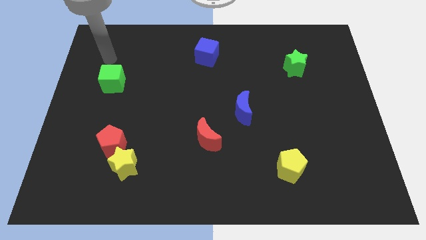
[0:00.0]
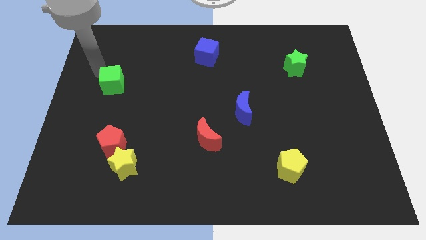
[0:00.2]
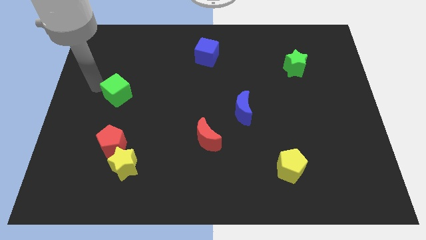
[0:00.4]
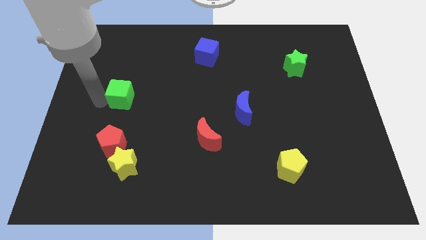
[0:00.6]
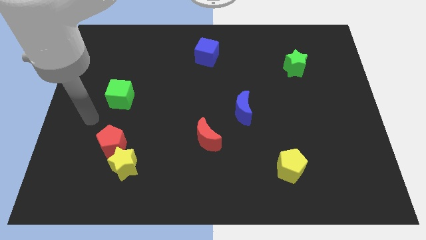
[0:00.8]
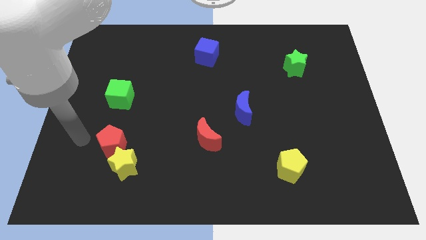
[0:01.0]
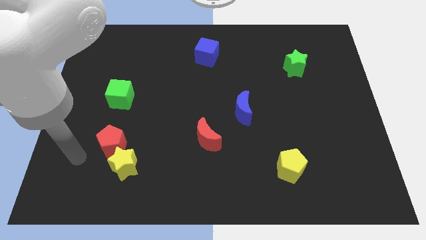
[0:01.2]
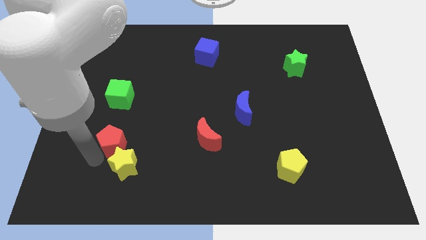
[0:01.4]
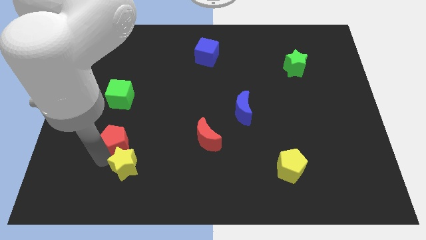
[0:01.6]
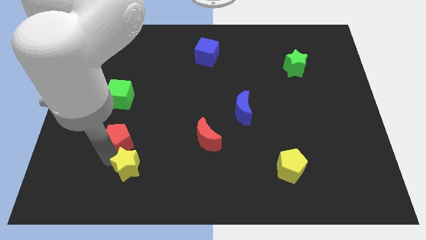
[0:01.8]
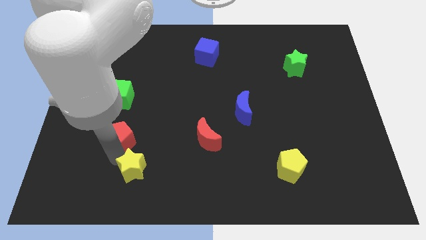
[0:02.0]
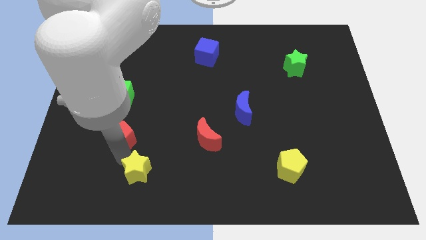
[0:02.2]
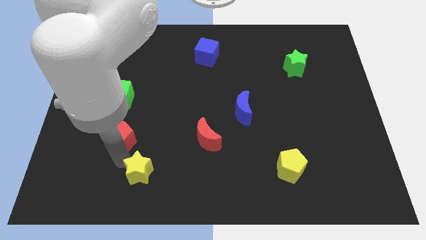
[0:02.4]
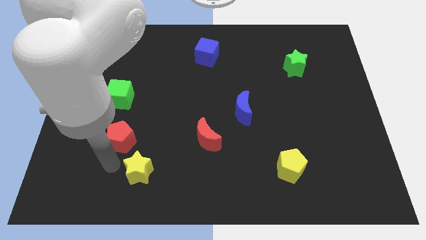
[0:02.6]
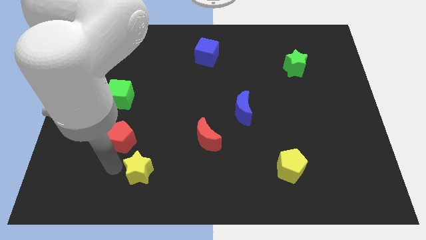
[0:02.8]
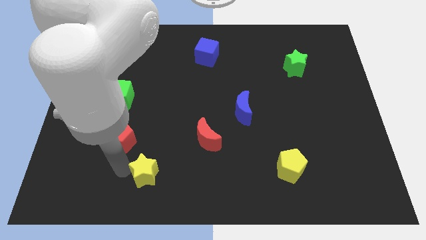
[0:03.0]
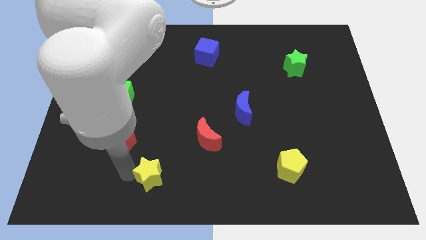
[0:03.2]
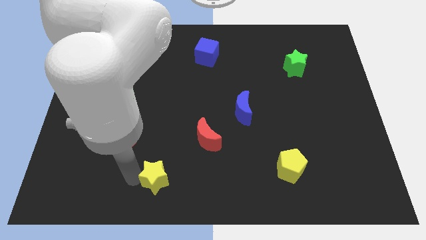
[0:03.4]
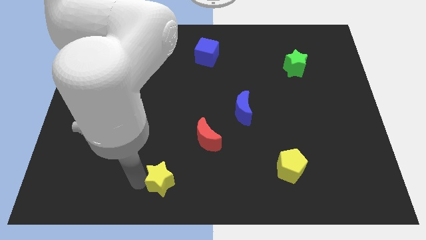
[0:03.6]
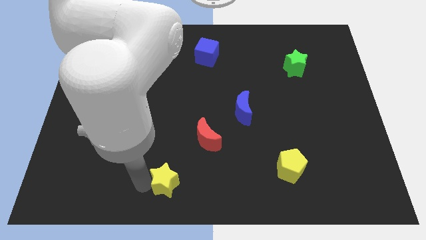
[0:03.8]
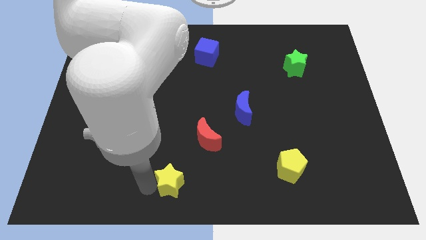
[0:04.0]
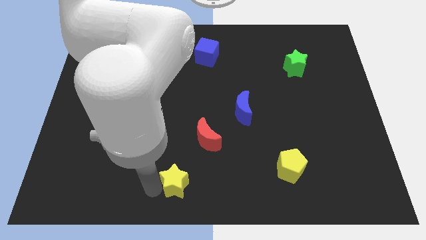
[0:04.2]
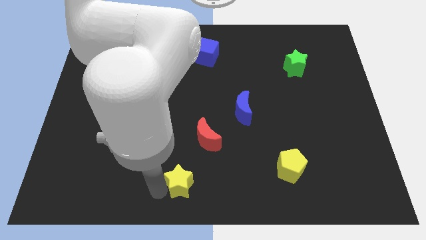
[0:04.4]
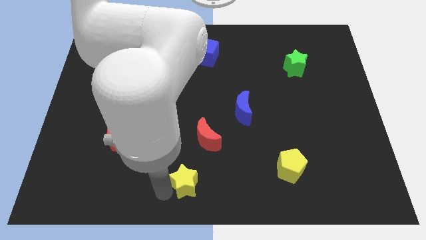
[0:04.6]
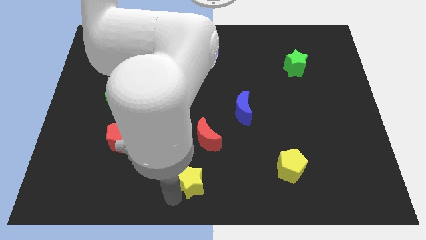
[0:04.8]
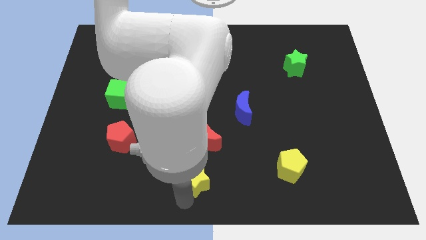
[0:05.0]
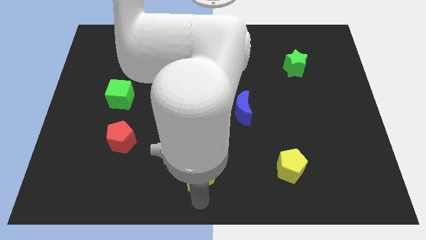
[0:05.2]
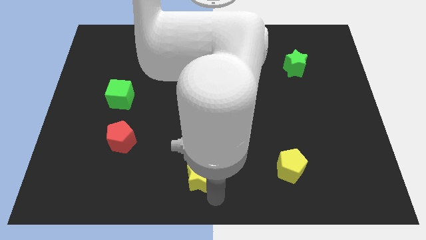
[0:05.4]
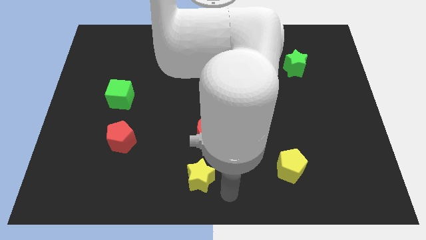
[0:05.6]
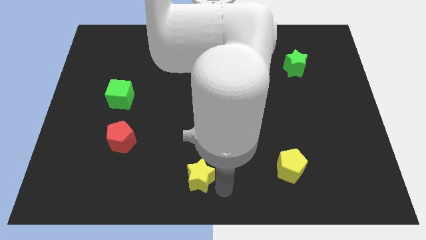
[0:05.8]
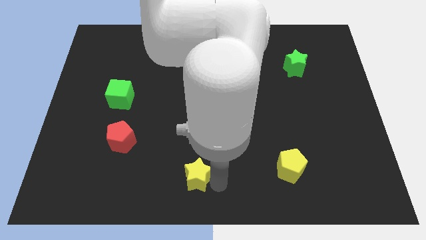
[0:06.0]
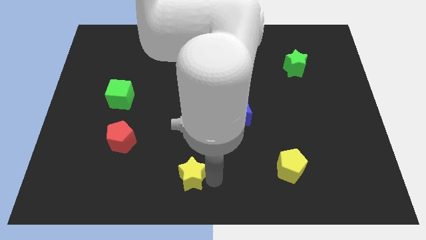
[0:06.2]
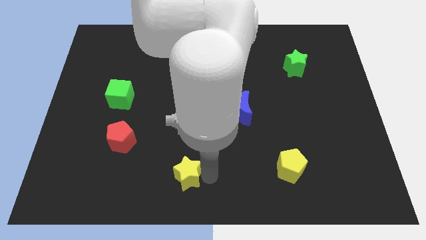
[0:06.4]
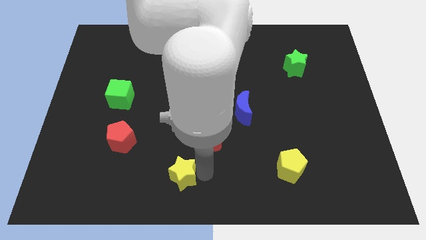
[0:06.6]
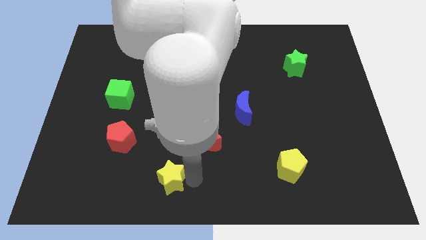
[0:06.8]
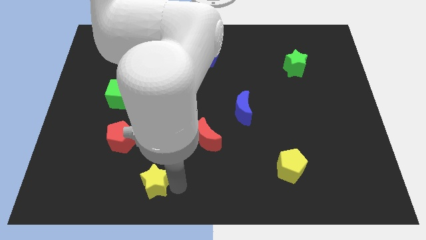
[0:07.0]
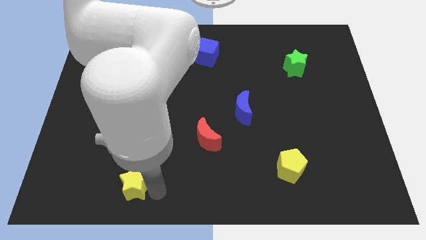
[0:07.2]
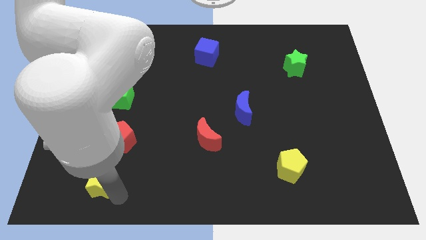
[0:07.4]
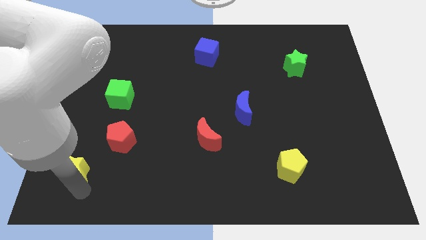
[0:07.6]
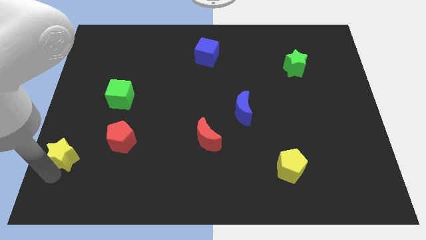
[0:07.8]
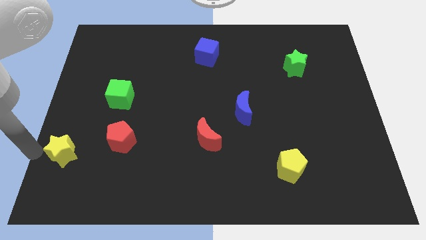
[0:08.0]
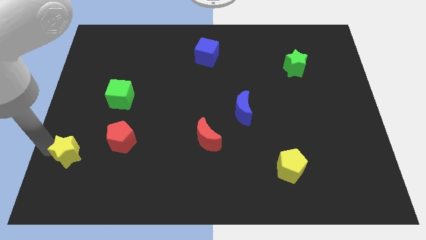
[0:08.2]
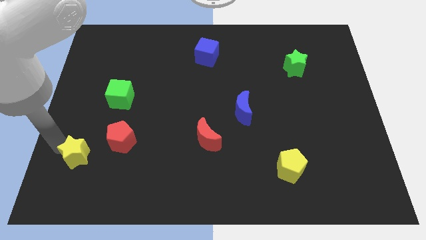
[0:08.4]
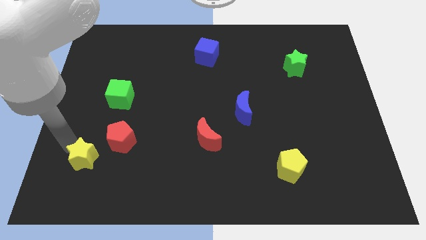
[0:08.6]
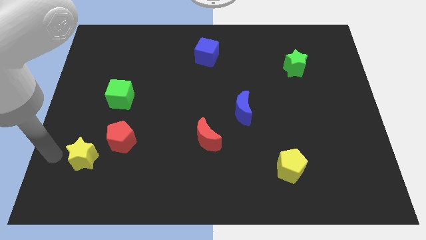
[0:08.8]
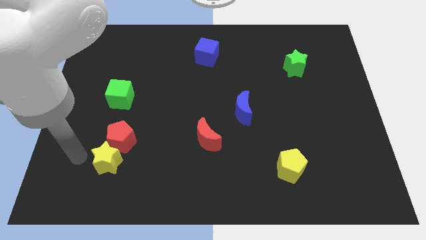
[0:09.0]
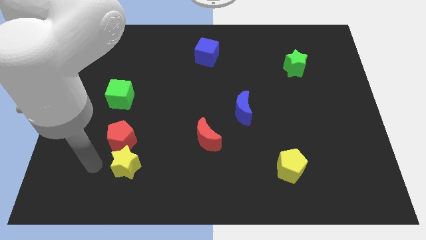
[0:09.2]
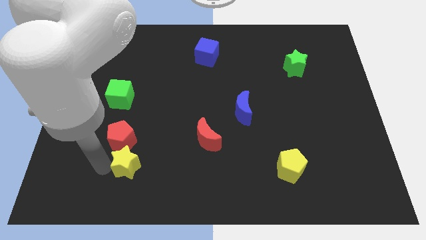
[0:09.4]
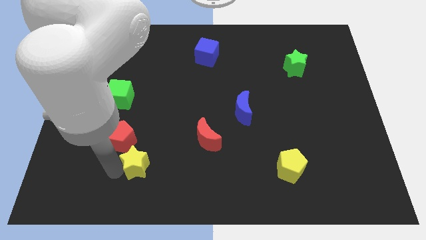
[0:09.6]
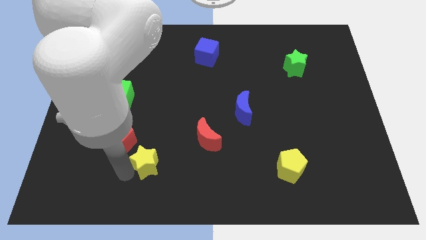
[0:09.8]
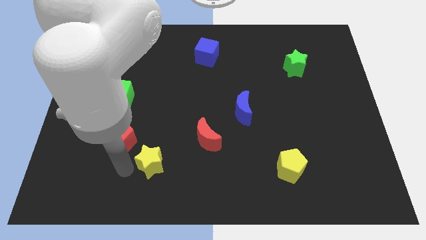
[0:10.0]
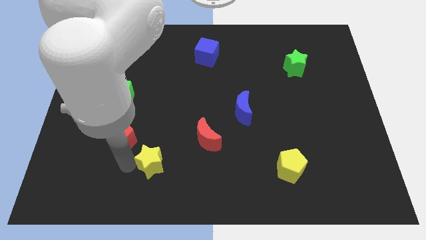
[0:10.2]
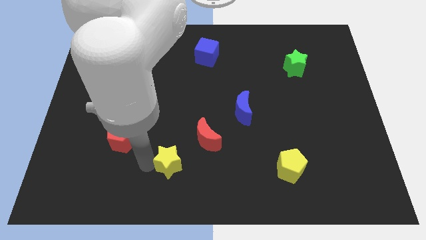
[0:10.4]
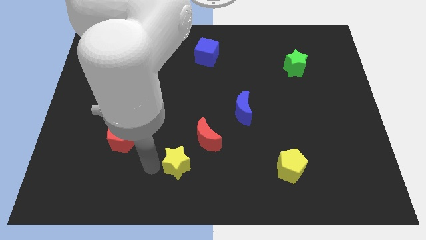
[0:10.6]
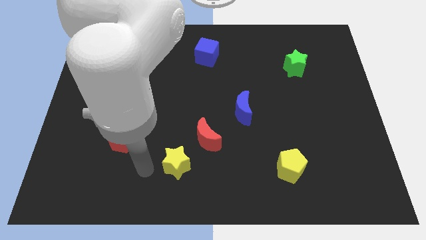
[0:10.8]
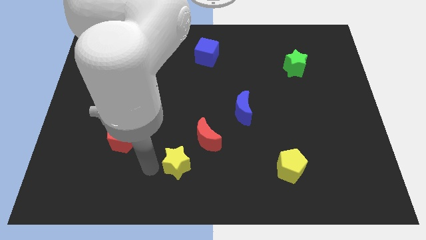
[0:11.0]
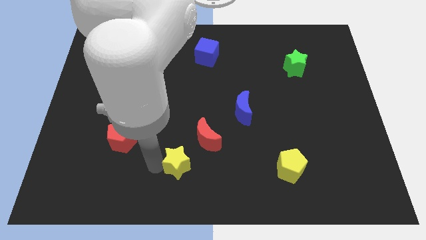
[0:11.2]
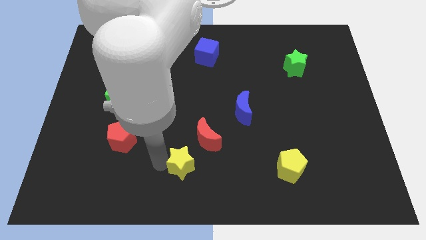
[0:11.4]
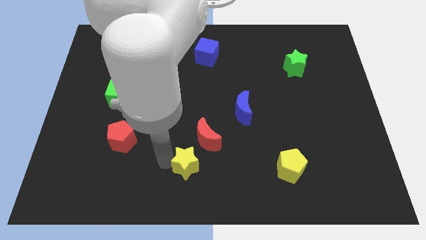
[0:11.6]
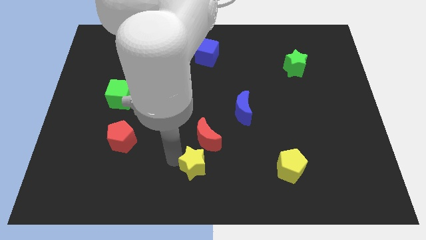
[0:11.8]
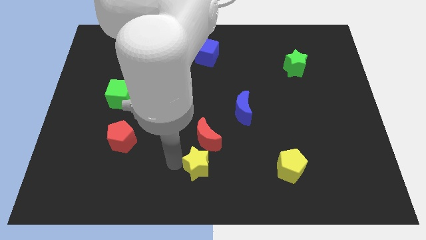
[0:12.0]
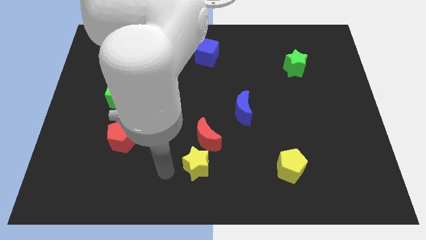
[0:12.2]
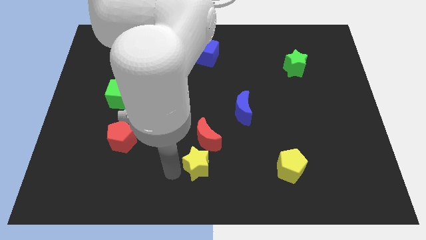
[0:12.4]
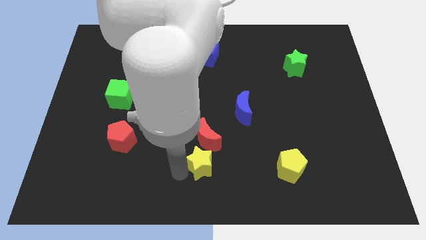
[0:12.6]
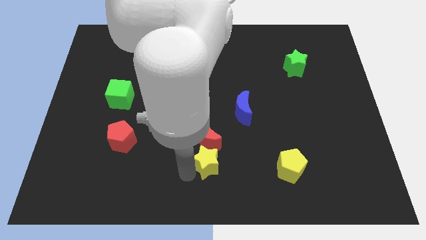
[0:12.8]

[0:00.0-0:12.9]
slide the yellow star diagonally down and to the right of the red moon

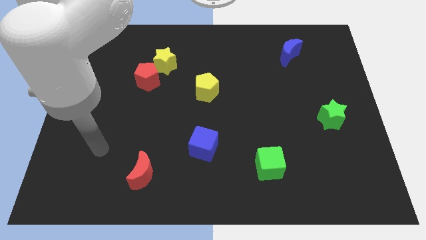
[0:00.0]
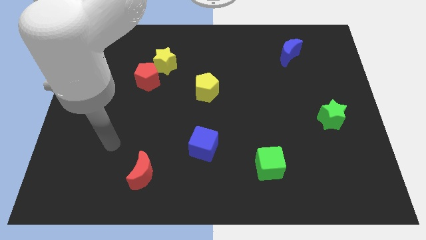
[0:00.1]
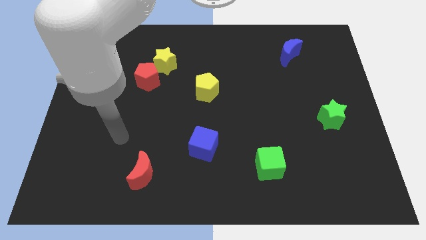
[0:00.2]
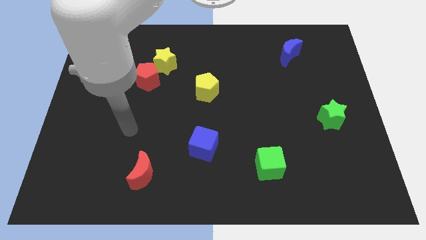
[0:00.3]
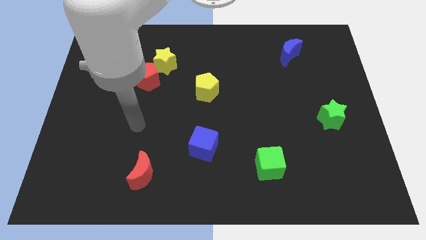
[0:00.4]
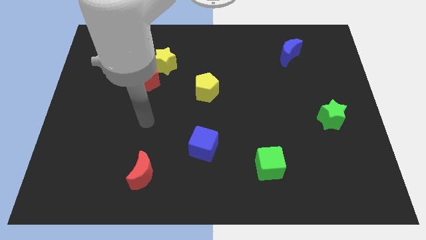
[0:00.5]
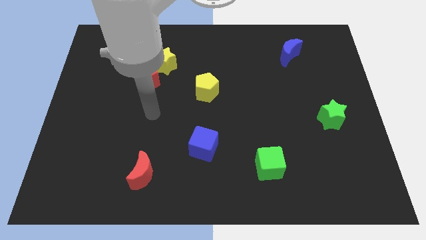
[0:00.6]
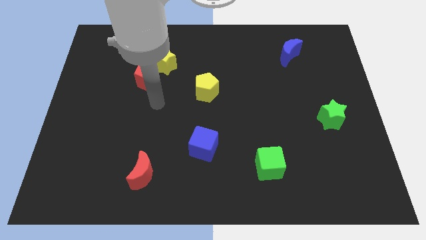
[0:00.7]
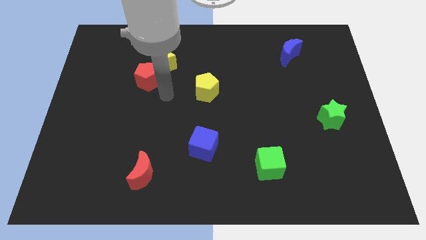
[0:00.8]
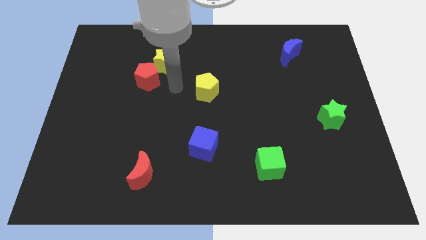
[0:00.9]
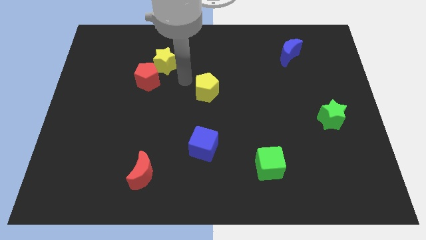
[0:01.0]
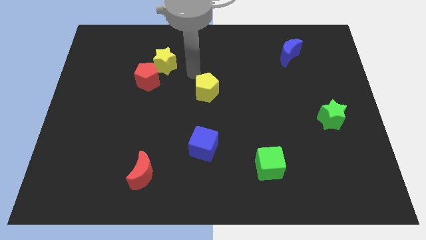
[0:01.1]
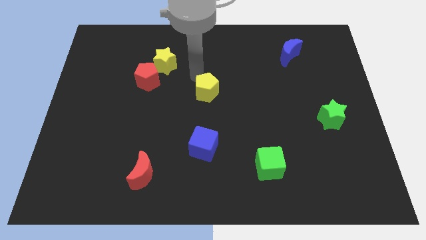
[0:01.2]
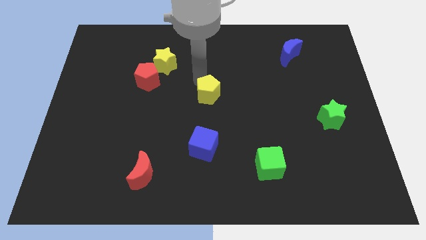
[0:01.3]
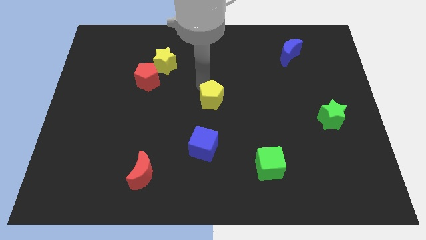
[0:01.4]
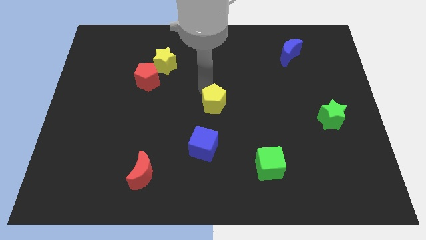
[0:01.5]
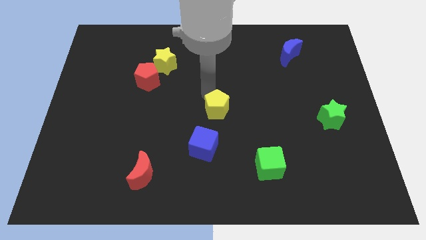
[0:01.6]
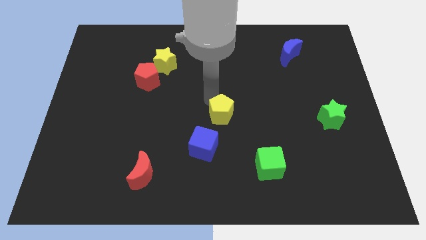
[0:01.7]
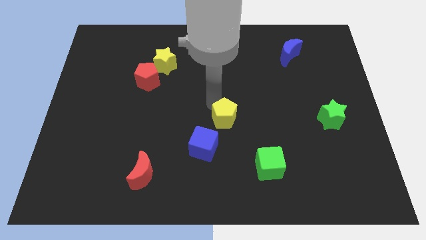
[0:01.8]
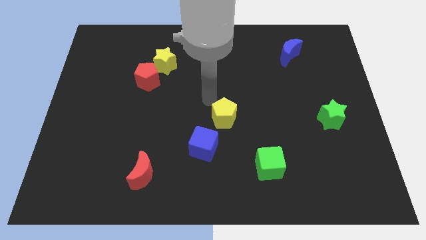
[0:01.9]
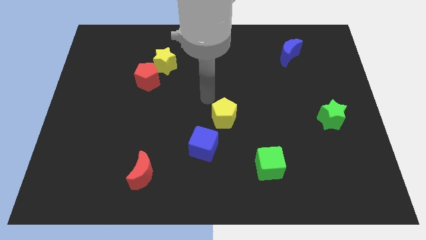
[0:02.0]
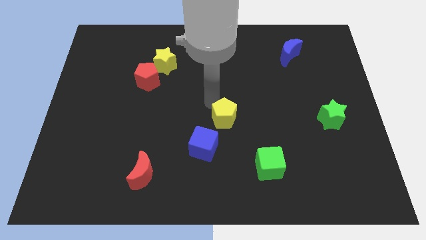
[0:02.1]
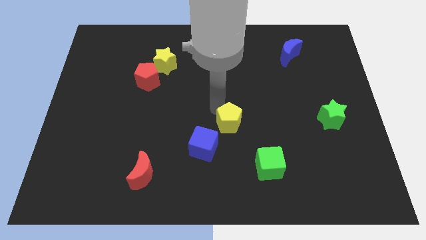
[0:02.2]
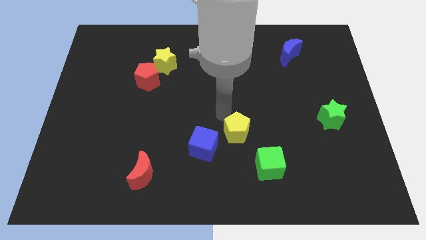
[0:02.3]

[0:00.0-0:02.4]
move the yellow pentagon to the right side of the blue cube
